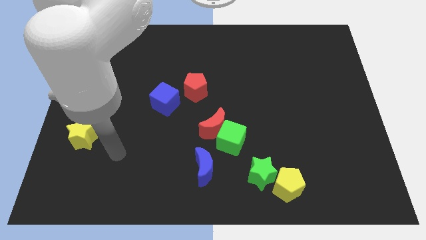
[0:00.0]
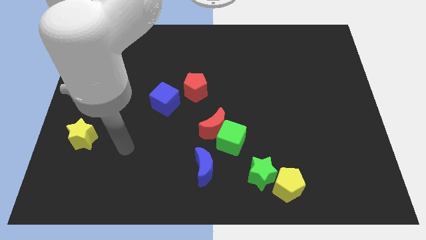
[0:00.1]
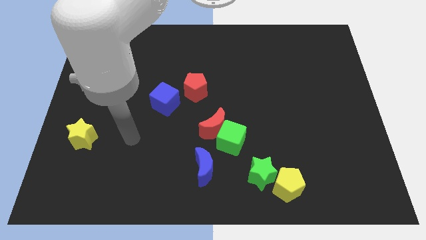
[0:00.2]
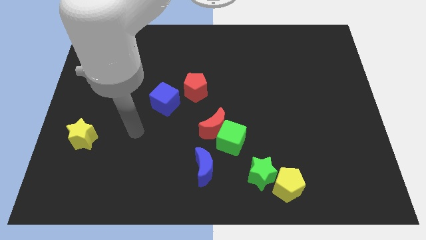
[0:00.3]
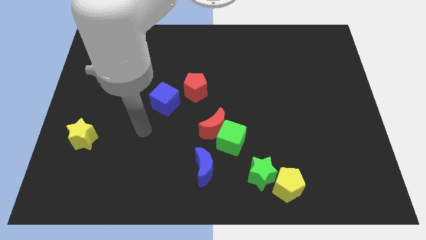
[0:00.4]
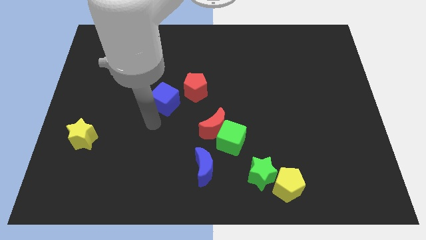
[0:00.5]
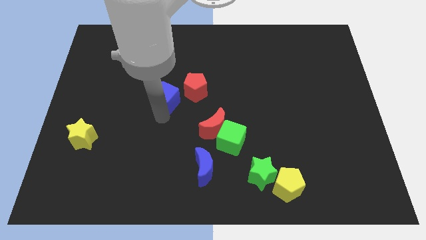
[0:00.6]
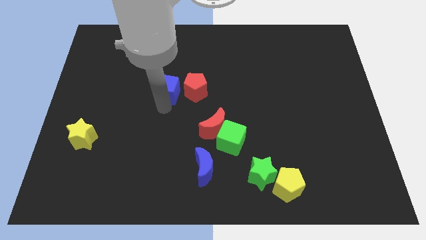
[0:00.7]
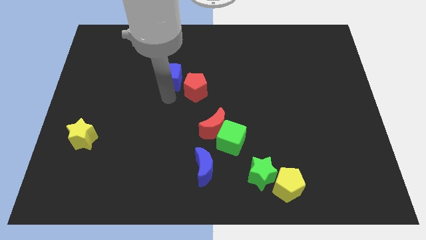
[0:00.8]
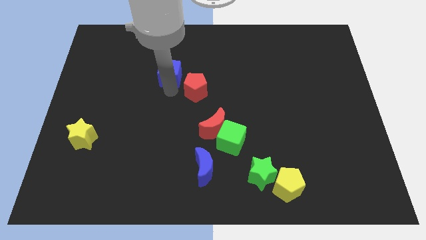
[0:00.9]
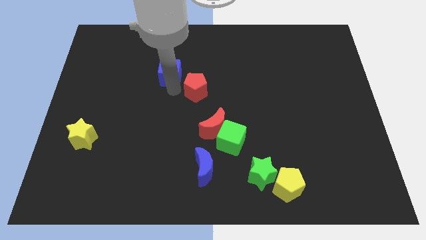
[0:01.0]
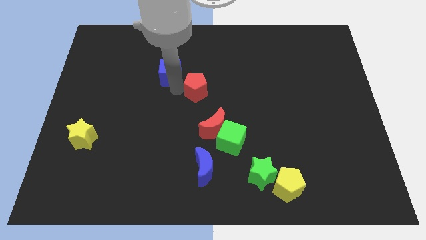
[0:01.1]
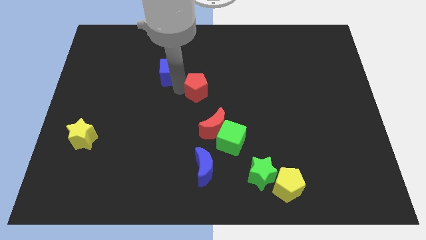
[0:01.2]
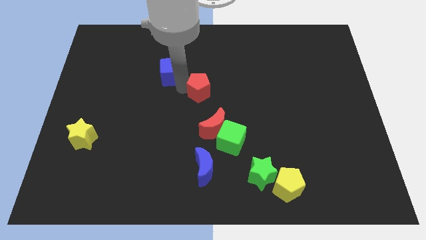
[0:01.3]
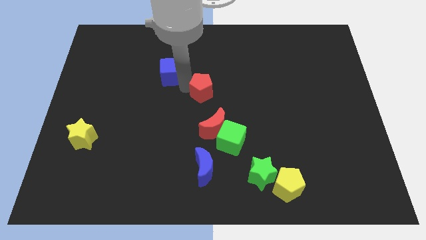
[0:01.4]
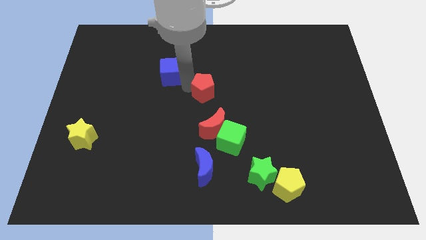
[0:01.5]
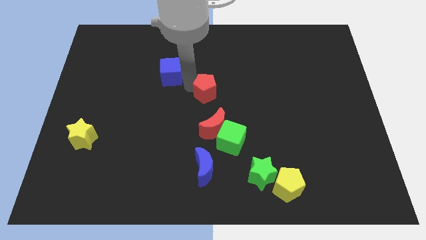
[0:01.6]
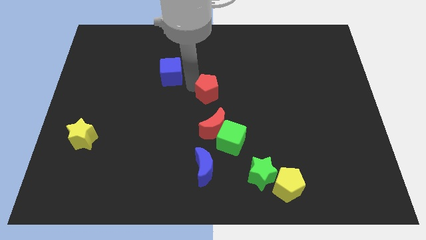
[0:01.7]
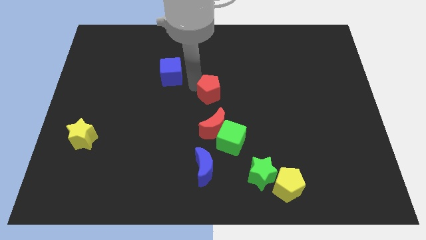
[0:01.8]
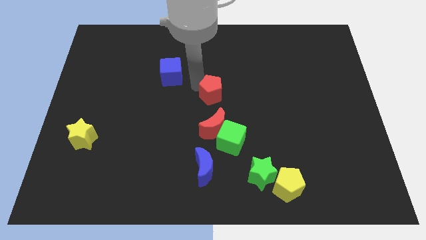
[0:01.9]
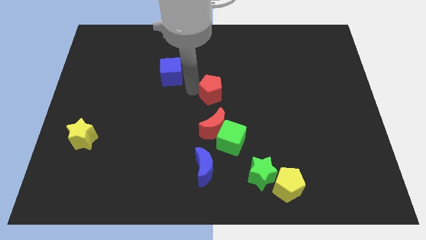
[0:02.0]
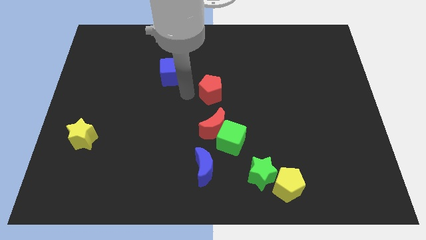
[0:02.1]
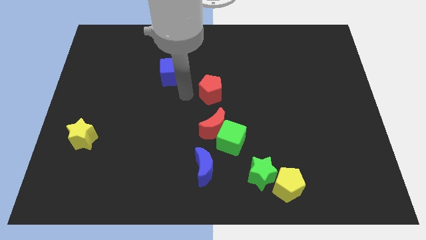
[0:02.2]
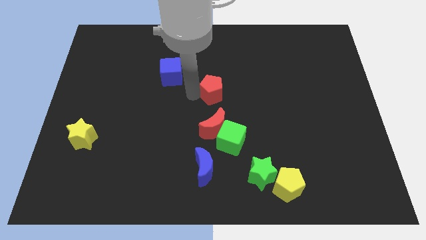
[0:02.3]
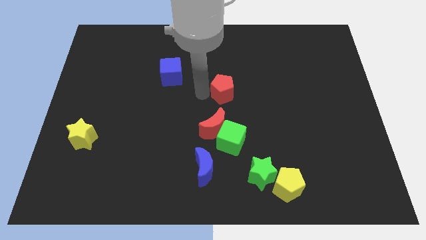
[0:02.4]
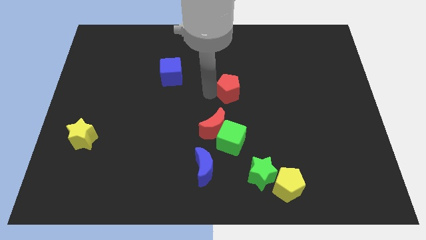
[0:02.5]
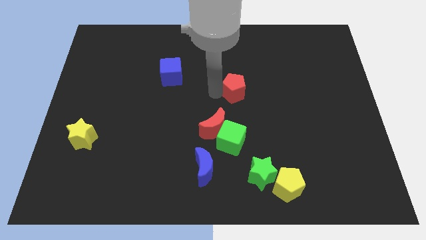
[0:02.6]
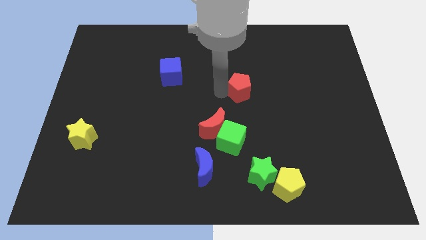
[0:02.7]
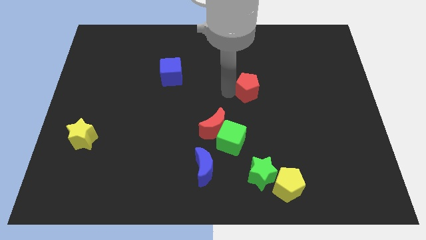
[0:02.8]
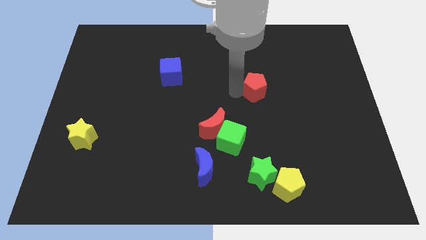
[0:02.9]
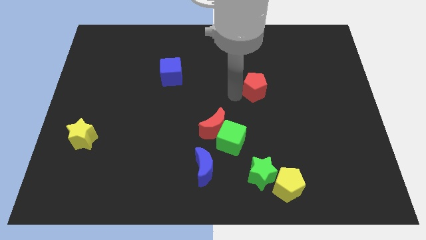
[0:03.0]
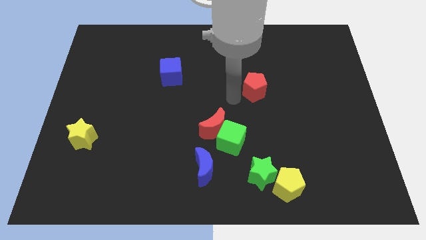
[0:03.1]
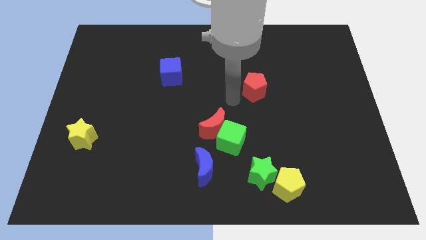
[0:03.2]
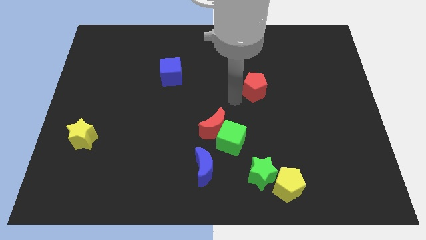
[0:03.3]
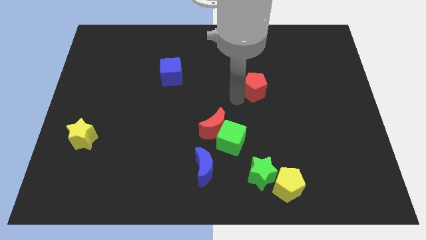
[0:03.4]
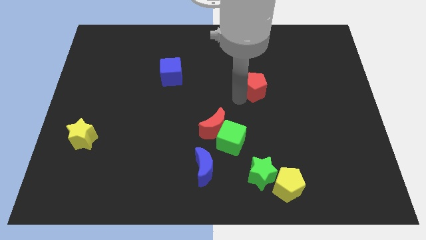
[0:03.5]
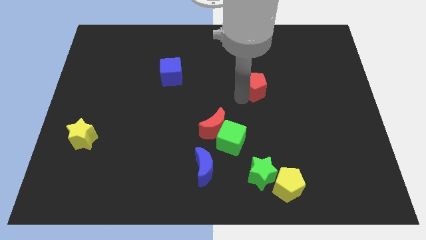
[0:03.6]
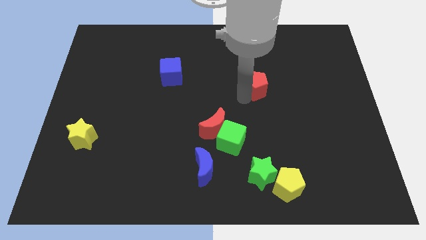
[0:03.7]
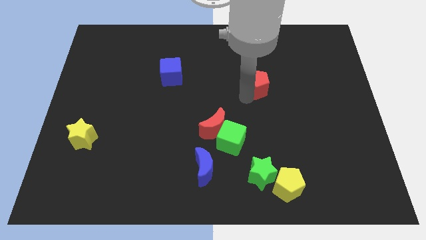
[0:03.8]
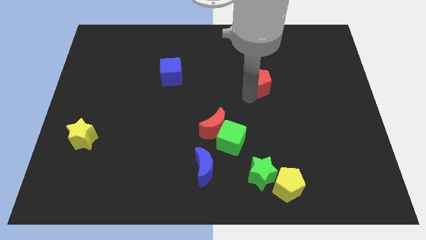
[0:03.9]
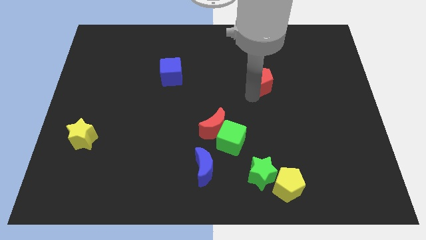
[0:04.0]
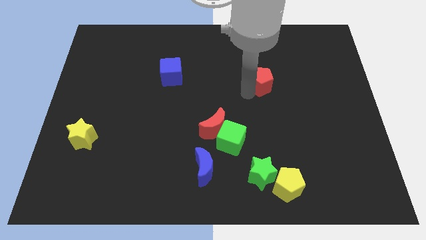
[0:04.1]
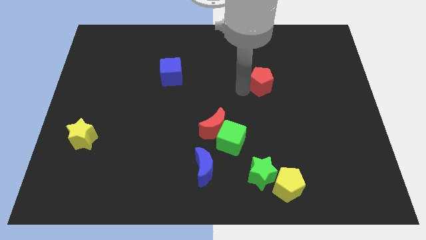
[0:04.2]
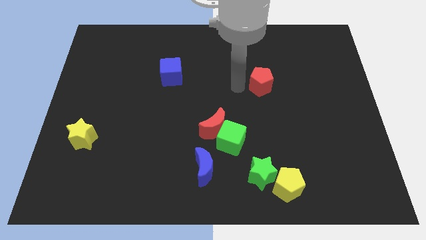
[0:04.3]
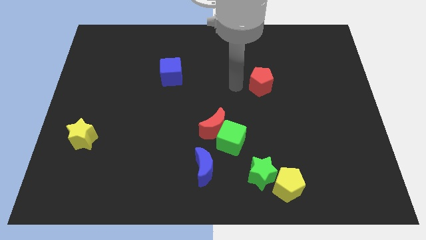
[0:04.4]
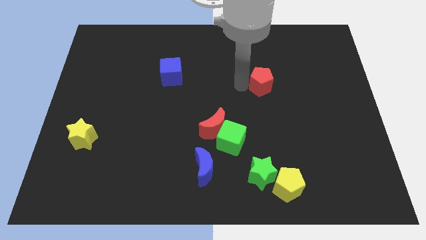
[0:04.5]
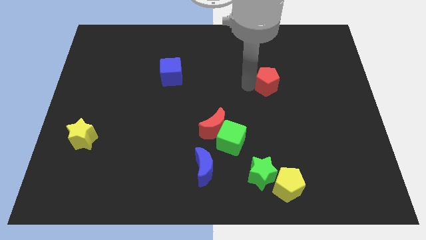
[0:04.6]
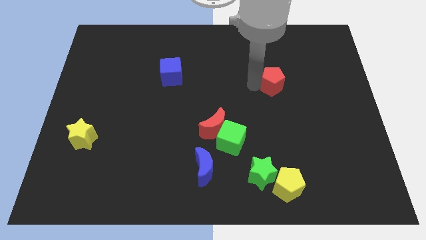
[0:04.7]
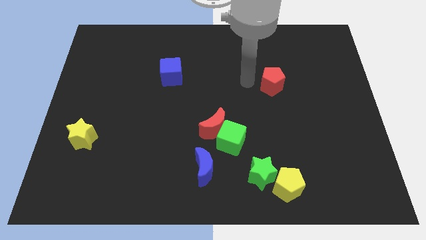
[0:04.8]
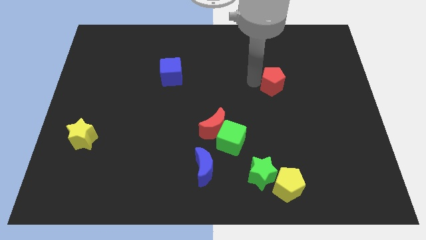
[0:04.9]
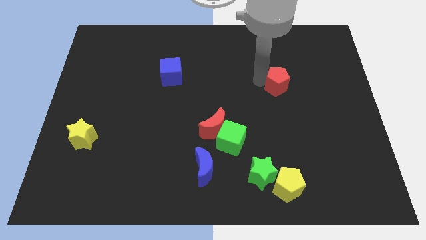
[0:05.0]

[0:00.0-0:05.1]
move the red pentagon to the right

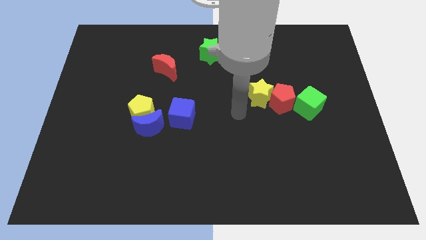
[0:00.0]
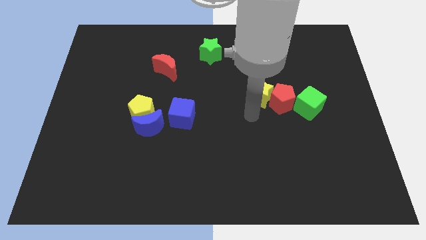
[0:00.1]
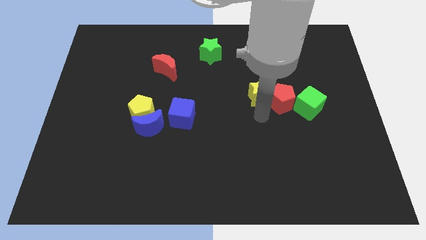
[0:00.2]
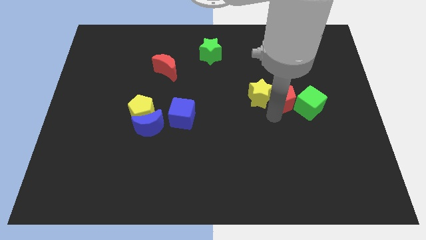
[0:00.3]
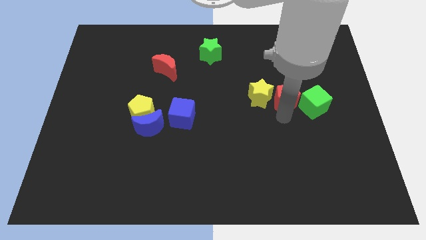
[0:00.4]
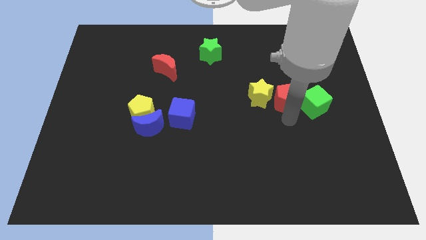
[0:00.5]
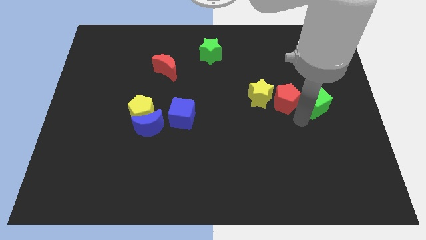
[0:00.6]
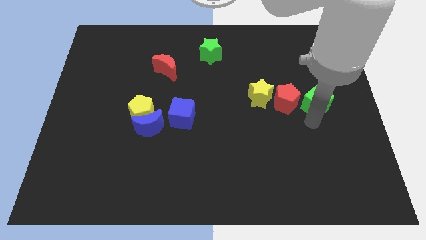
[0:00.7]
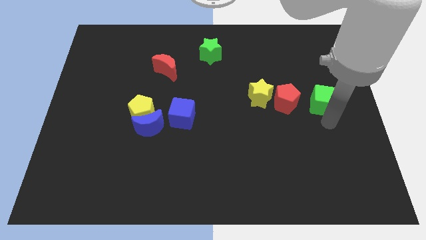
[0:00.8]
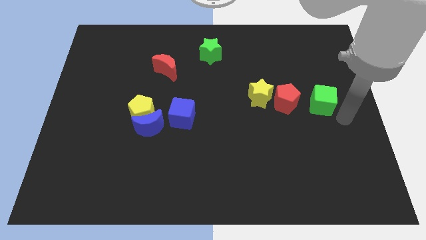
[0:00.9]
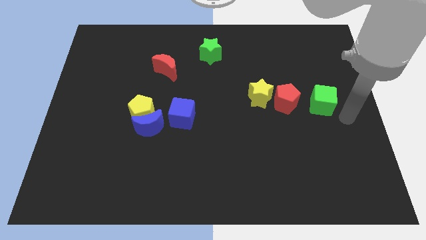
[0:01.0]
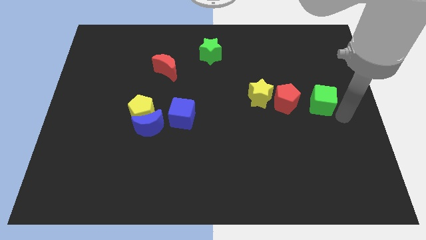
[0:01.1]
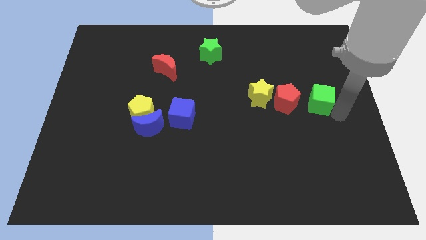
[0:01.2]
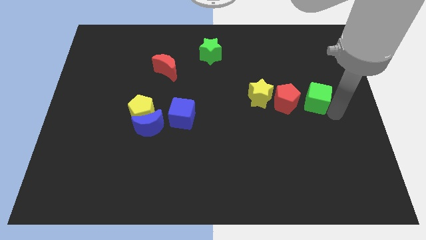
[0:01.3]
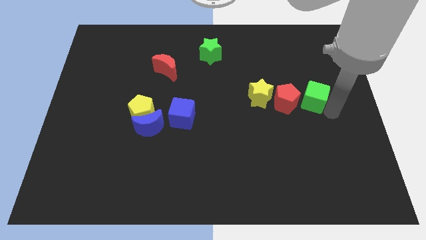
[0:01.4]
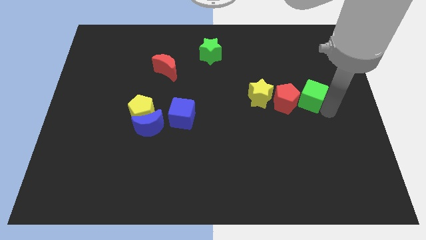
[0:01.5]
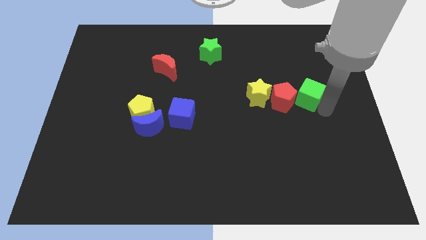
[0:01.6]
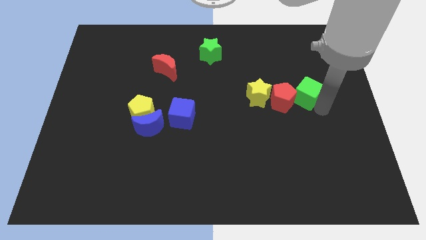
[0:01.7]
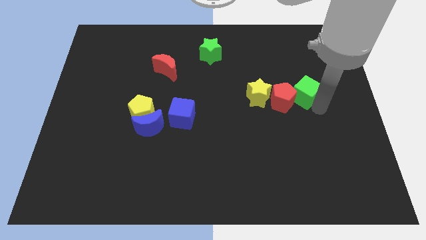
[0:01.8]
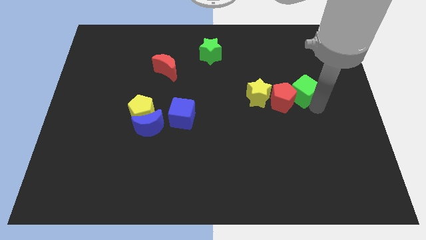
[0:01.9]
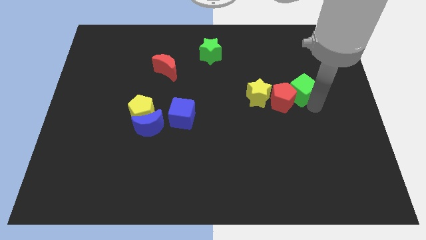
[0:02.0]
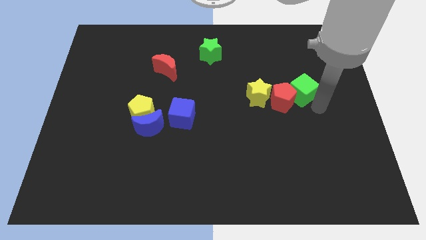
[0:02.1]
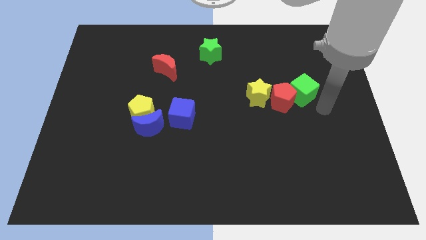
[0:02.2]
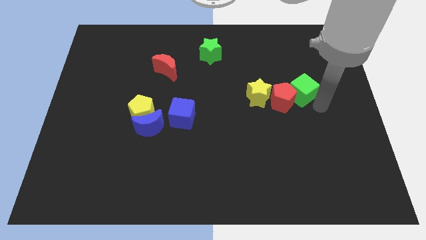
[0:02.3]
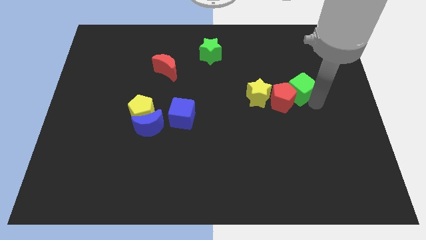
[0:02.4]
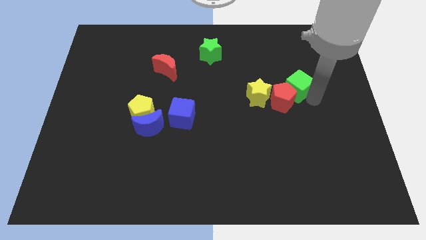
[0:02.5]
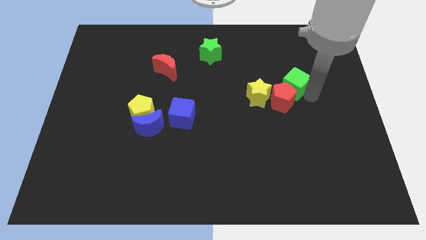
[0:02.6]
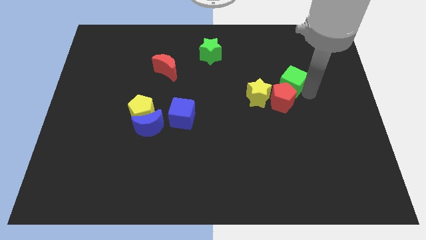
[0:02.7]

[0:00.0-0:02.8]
slightly slide the green cube up and then left
